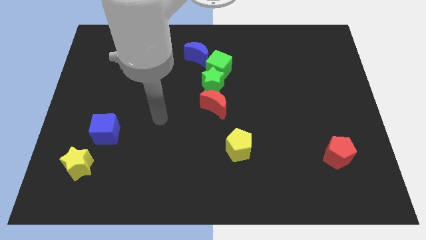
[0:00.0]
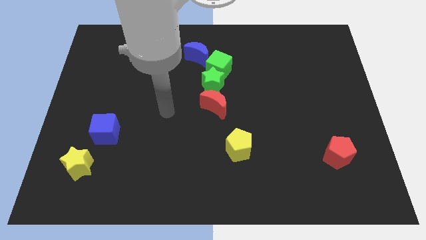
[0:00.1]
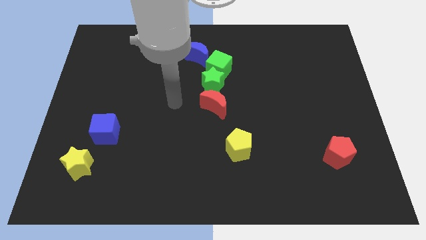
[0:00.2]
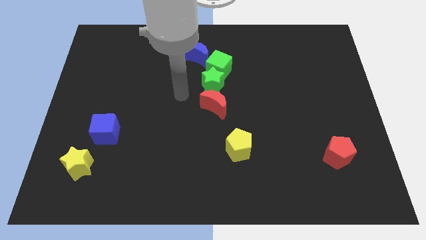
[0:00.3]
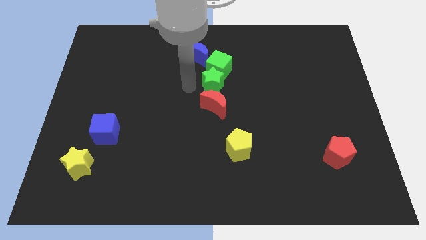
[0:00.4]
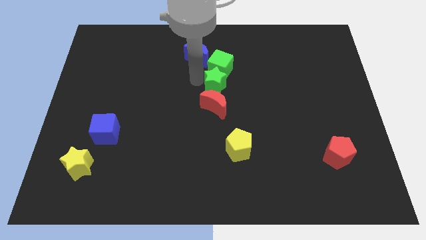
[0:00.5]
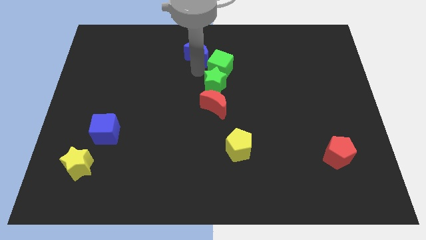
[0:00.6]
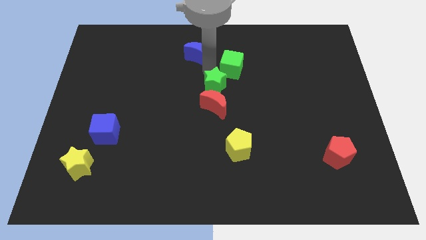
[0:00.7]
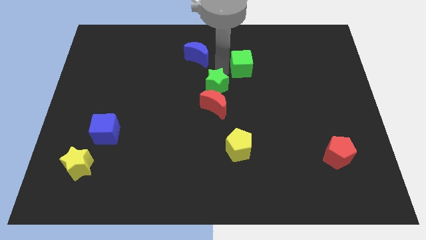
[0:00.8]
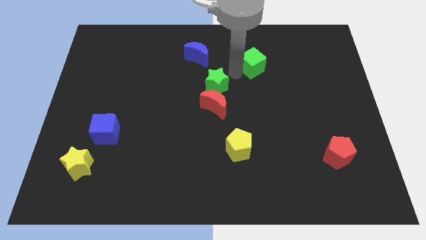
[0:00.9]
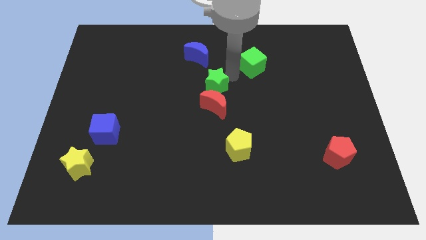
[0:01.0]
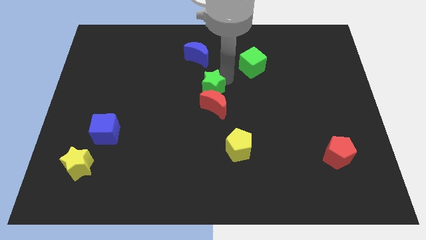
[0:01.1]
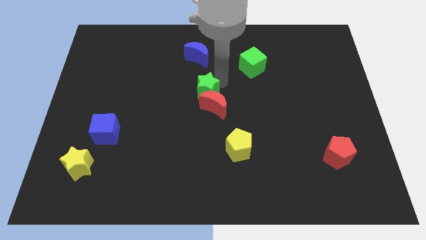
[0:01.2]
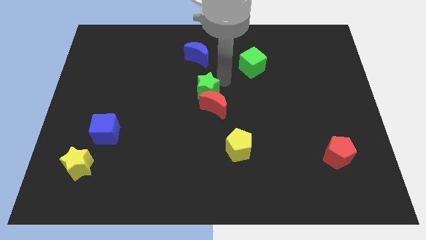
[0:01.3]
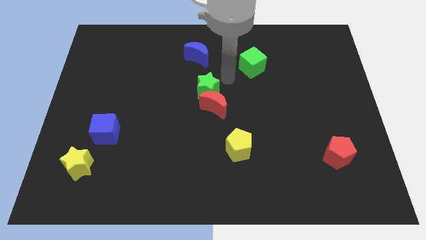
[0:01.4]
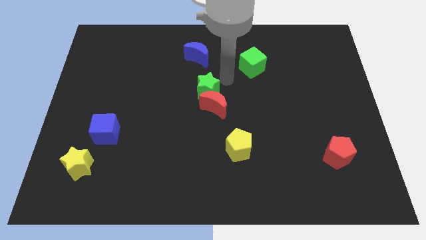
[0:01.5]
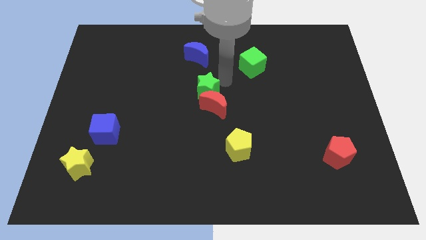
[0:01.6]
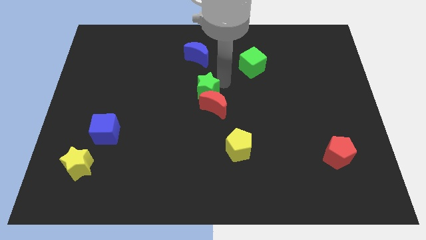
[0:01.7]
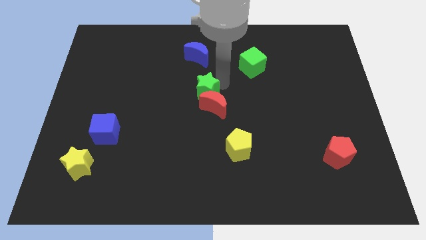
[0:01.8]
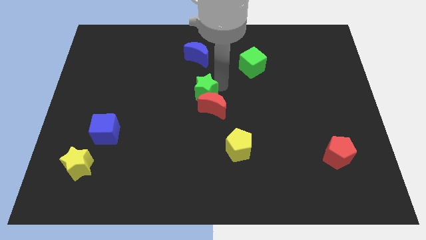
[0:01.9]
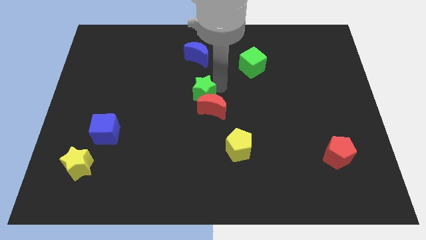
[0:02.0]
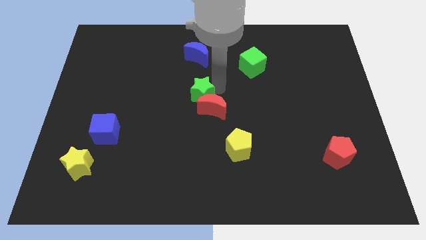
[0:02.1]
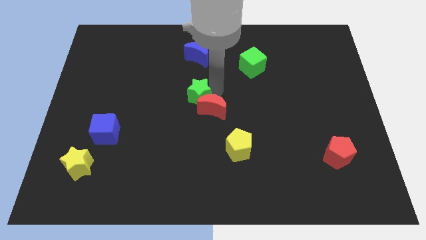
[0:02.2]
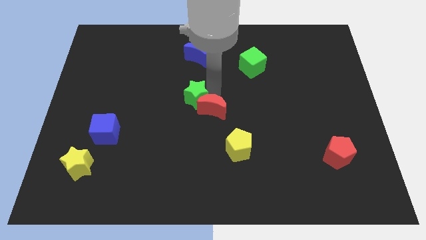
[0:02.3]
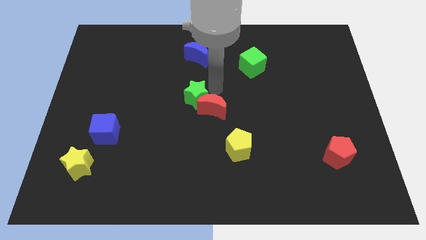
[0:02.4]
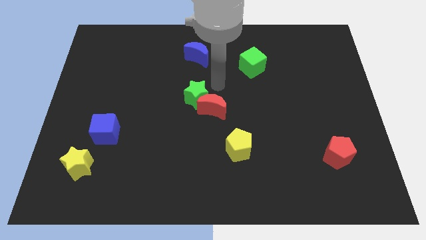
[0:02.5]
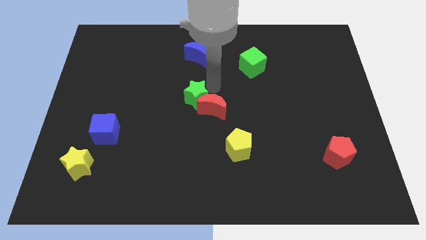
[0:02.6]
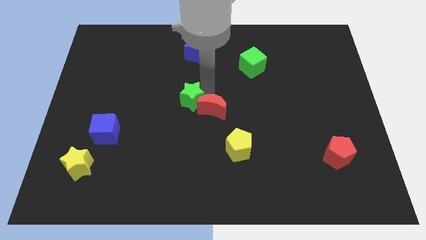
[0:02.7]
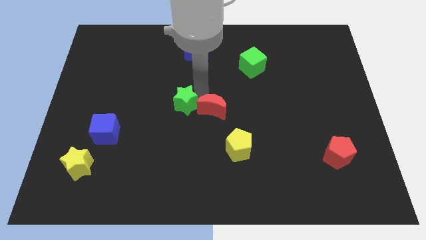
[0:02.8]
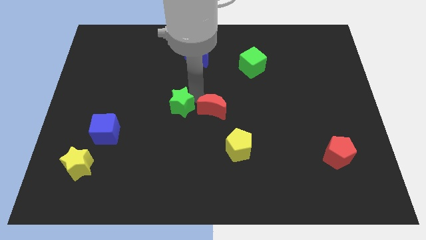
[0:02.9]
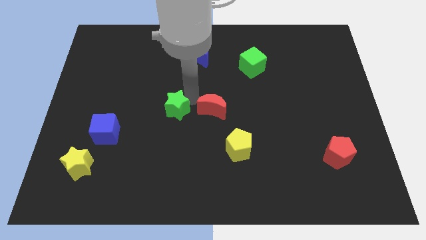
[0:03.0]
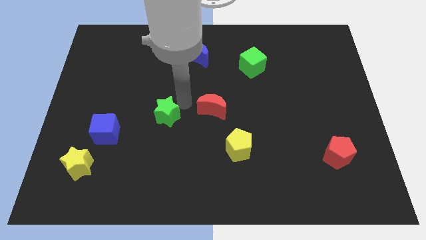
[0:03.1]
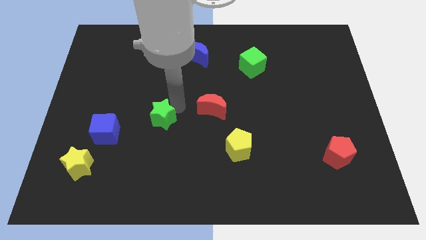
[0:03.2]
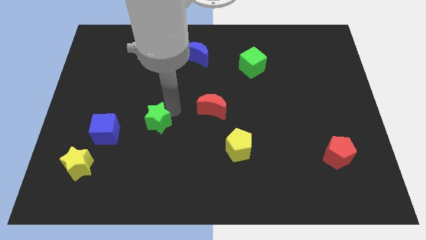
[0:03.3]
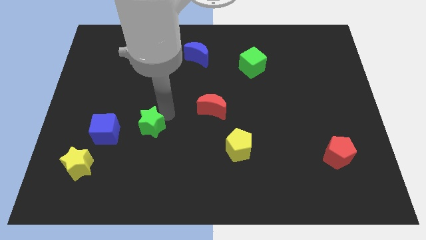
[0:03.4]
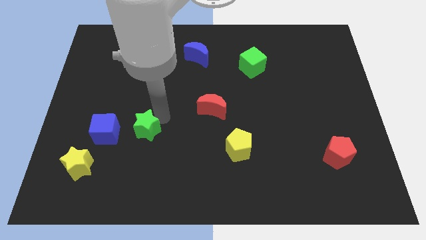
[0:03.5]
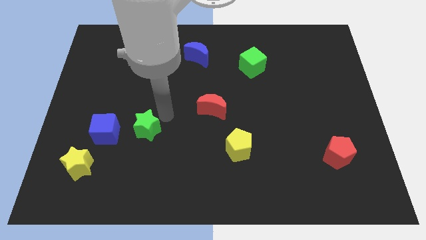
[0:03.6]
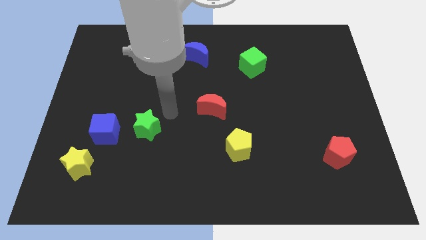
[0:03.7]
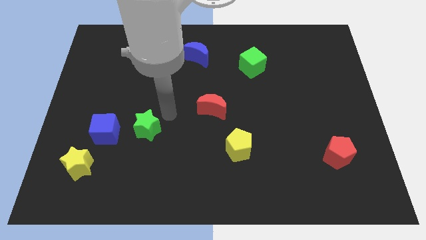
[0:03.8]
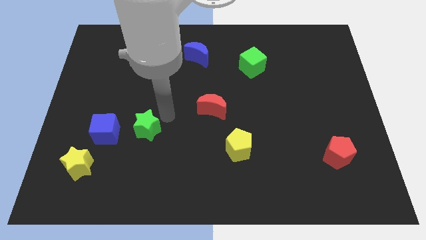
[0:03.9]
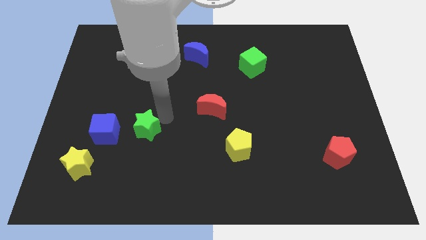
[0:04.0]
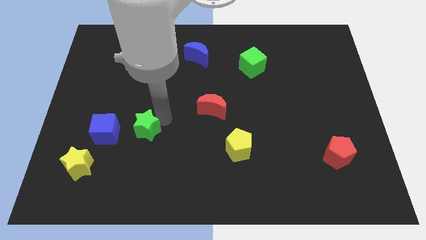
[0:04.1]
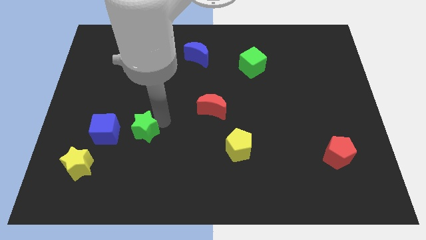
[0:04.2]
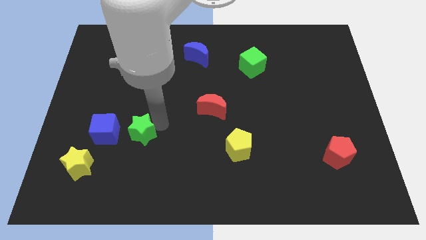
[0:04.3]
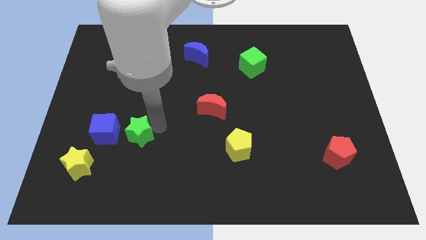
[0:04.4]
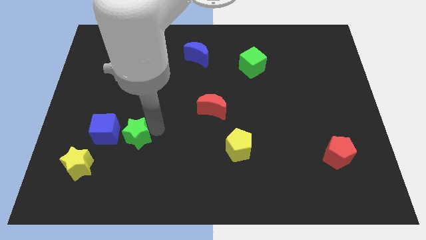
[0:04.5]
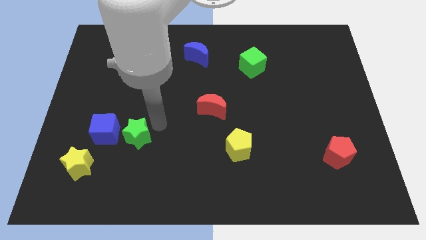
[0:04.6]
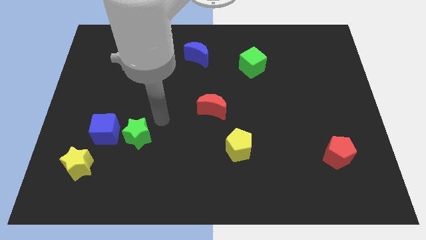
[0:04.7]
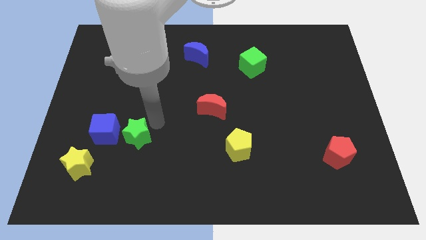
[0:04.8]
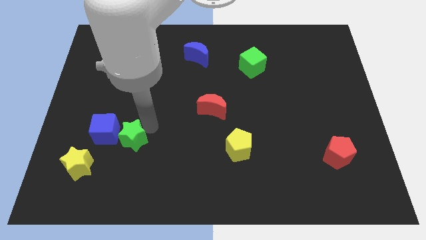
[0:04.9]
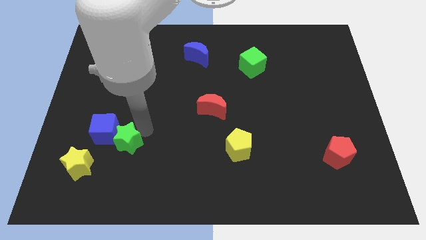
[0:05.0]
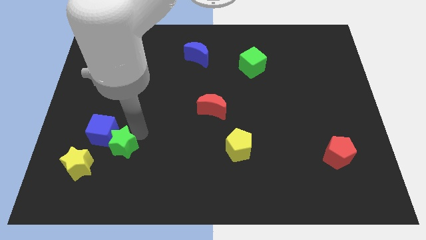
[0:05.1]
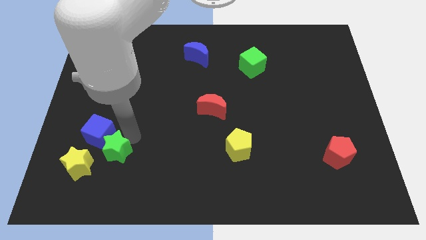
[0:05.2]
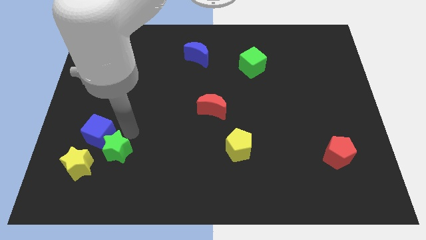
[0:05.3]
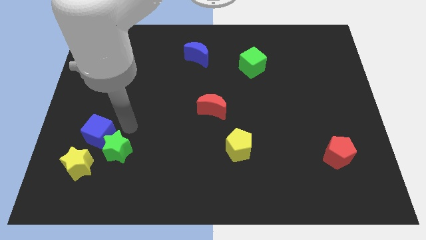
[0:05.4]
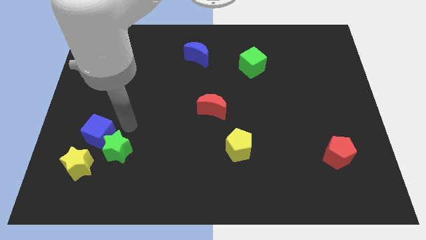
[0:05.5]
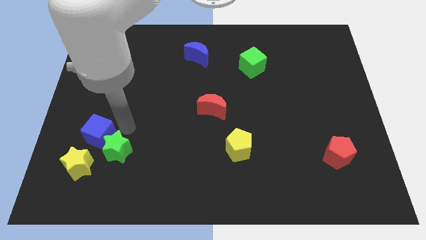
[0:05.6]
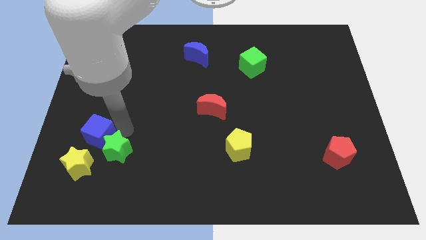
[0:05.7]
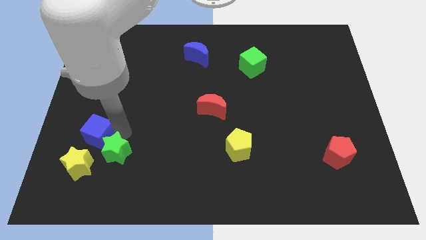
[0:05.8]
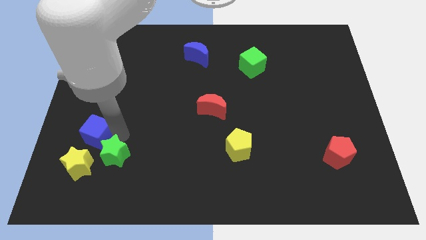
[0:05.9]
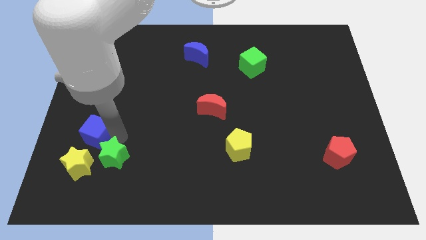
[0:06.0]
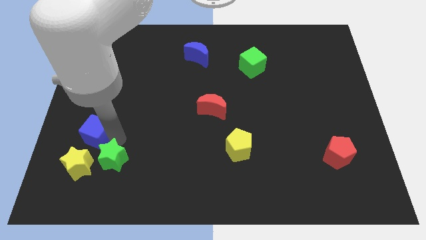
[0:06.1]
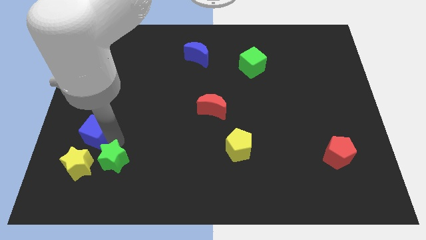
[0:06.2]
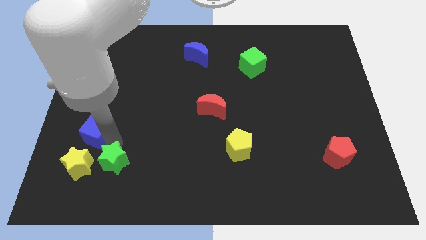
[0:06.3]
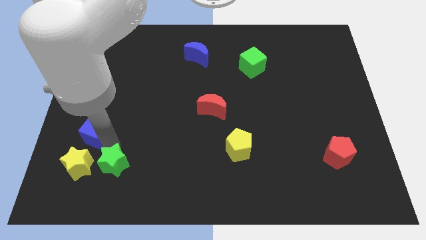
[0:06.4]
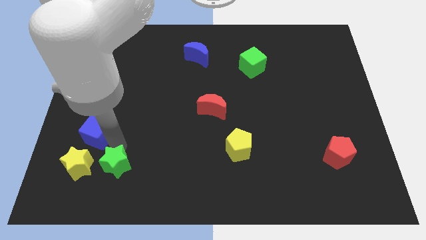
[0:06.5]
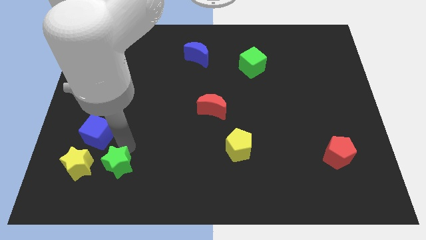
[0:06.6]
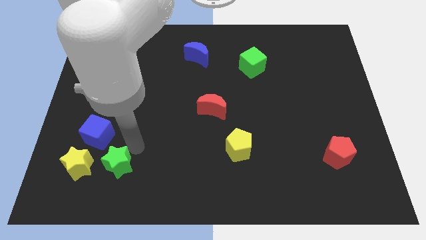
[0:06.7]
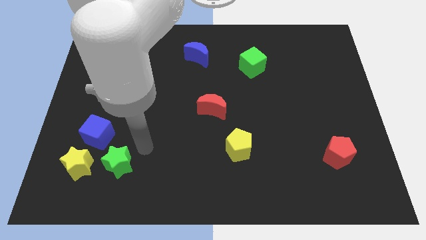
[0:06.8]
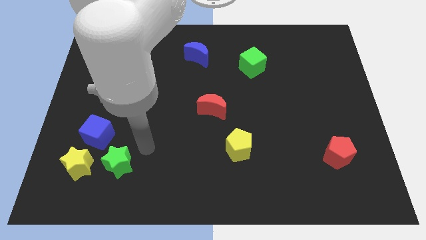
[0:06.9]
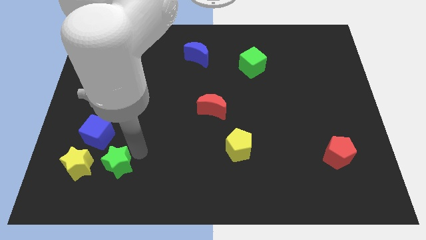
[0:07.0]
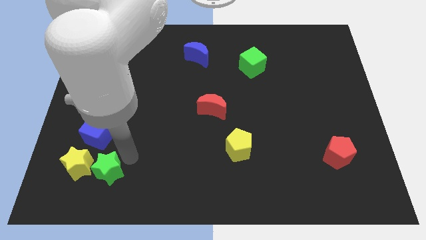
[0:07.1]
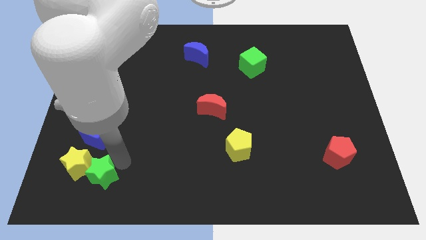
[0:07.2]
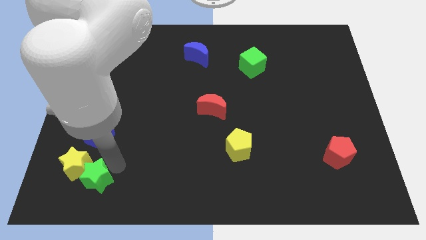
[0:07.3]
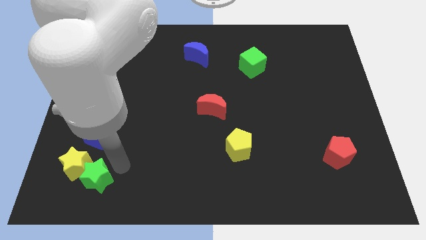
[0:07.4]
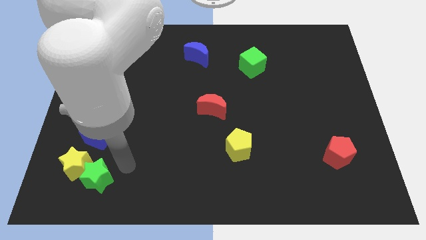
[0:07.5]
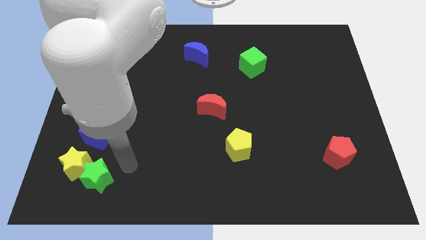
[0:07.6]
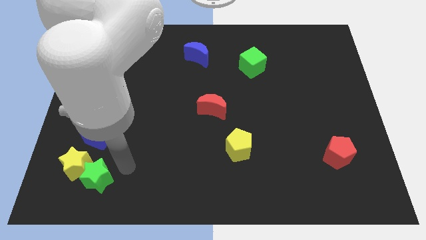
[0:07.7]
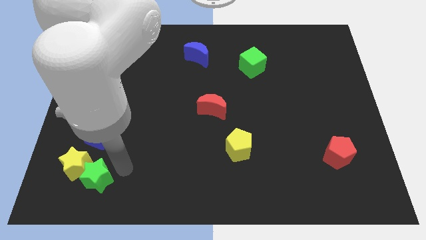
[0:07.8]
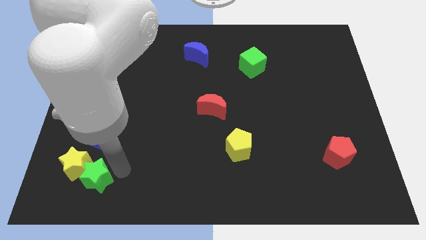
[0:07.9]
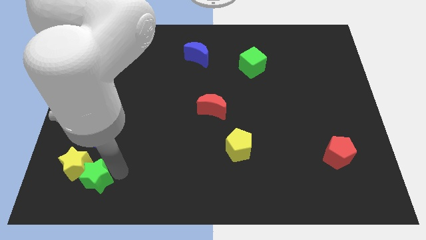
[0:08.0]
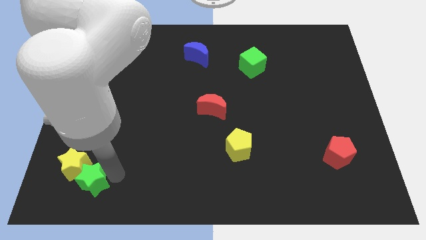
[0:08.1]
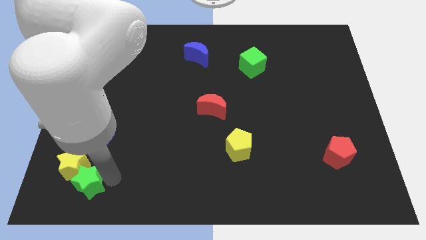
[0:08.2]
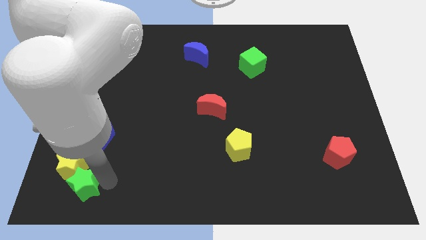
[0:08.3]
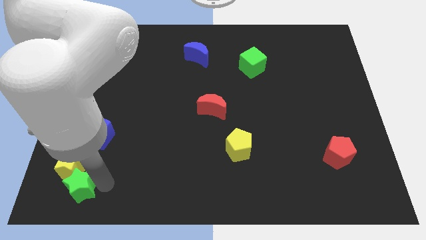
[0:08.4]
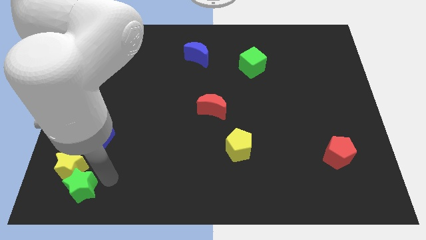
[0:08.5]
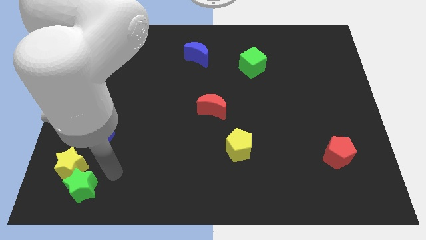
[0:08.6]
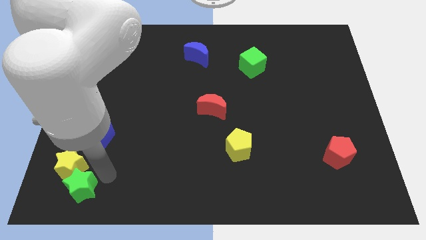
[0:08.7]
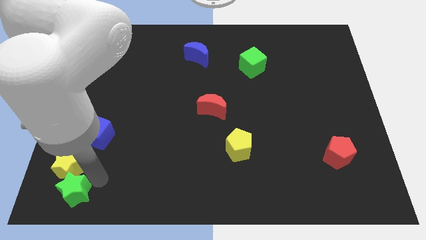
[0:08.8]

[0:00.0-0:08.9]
move the green star to the bottom left of the board
